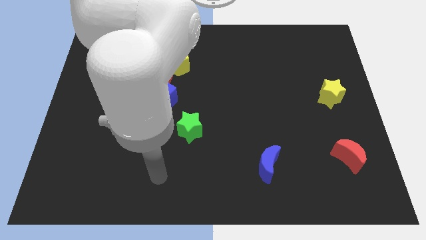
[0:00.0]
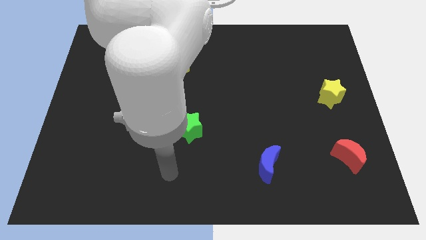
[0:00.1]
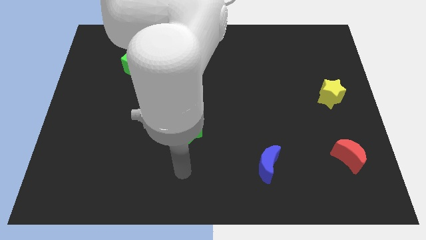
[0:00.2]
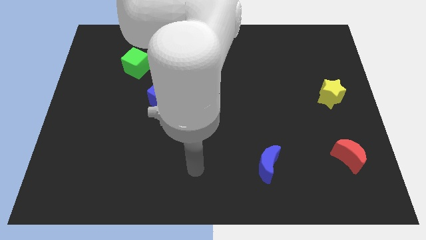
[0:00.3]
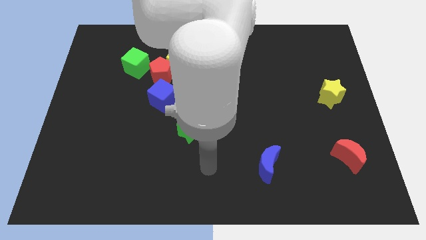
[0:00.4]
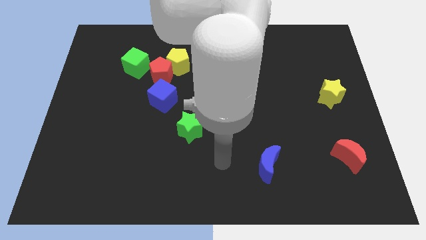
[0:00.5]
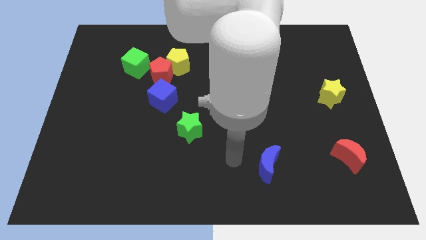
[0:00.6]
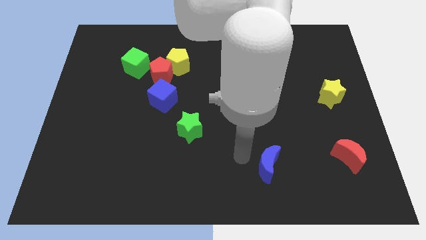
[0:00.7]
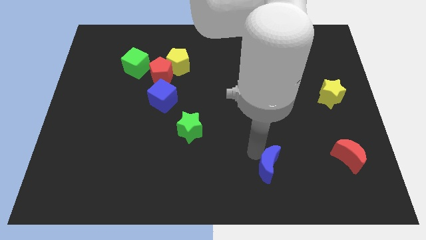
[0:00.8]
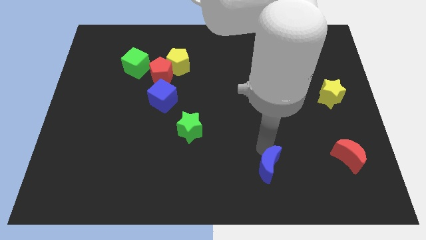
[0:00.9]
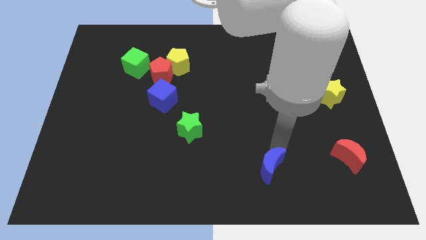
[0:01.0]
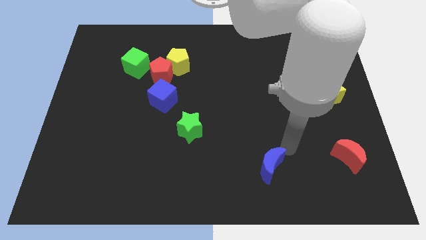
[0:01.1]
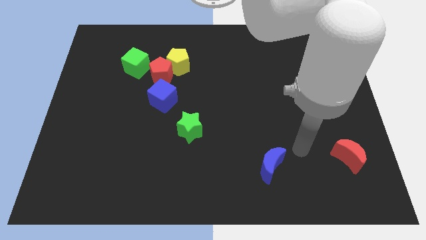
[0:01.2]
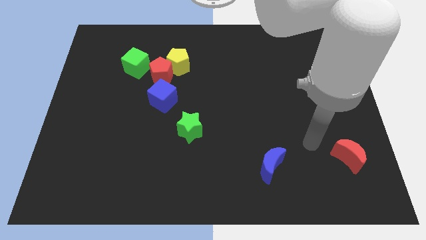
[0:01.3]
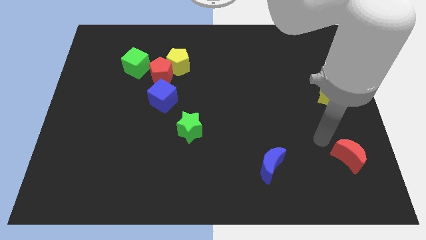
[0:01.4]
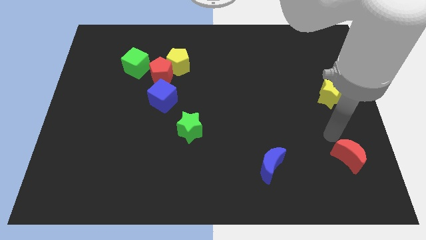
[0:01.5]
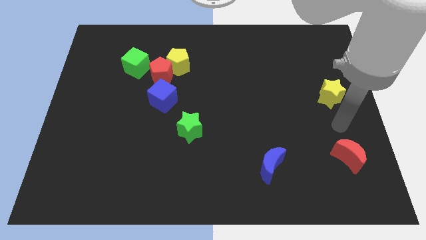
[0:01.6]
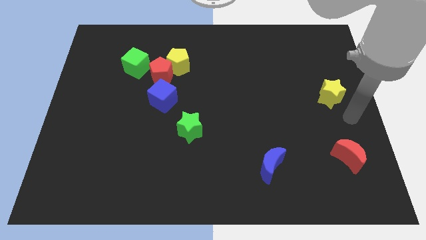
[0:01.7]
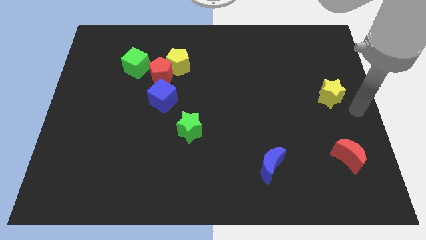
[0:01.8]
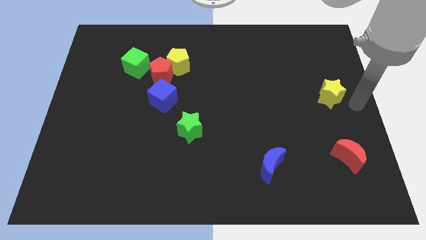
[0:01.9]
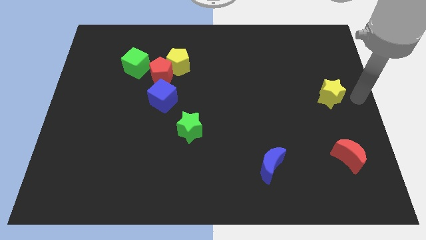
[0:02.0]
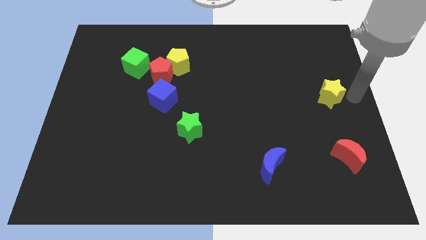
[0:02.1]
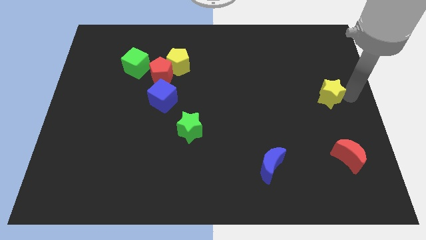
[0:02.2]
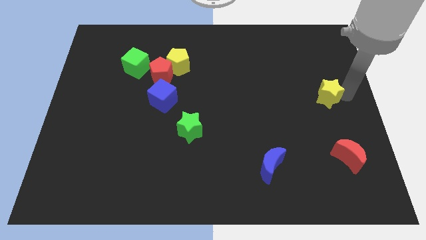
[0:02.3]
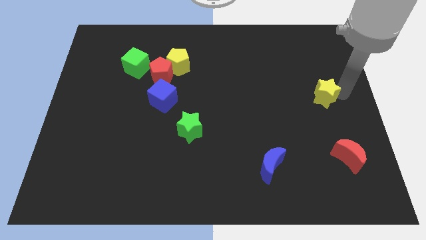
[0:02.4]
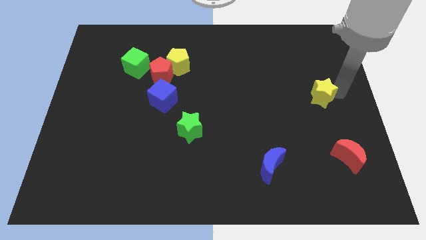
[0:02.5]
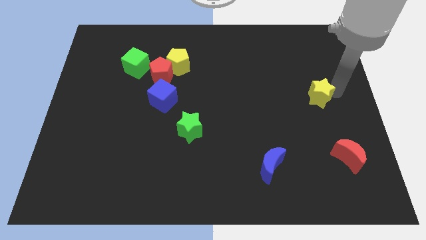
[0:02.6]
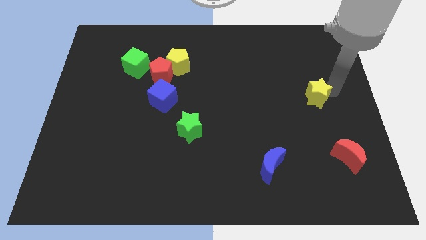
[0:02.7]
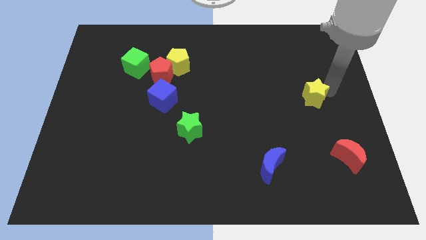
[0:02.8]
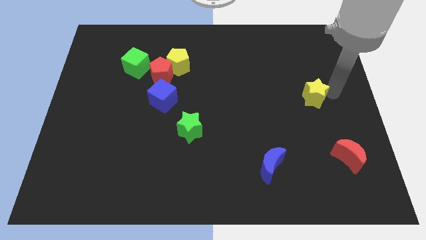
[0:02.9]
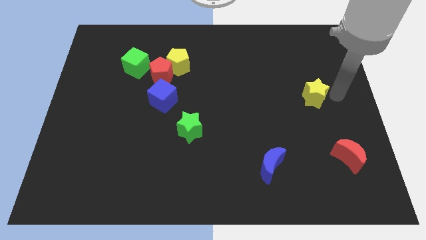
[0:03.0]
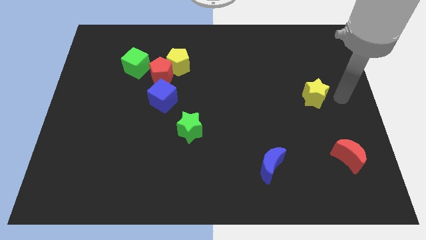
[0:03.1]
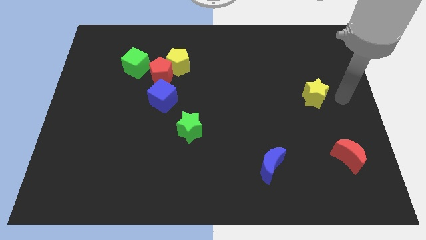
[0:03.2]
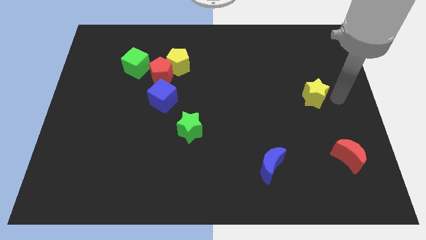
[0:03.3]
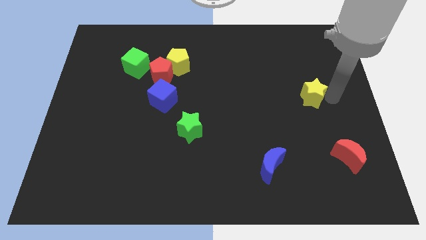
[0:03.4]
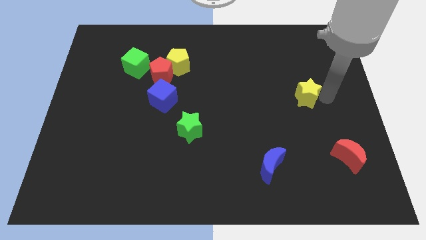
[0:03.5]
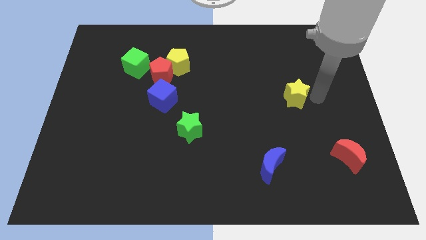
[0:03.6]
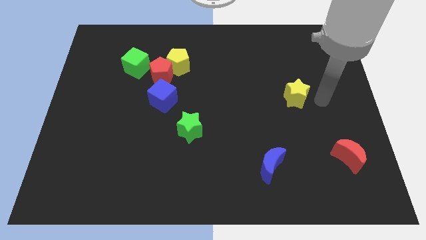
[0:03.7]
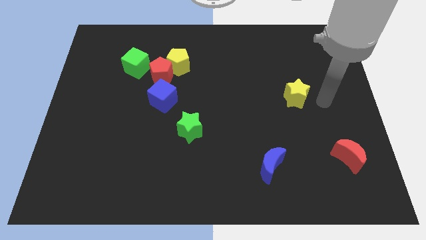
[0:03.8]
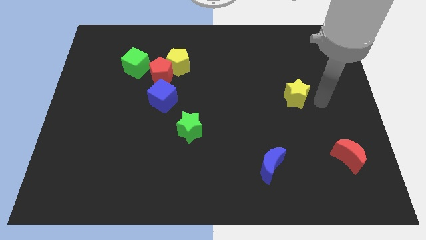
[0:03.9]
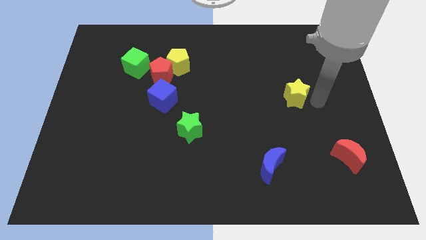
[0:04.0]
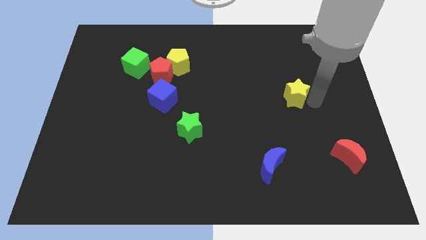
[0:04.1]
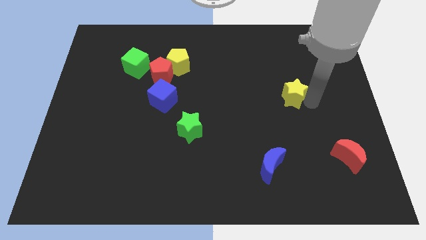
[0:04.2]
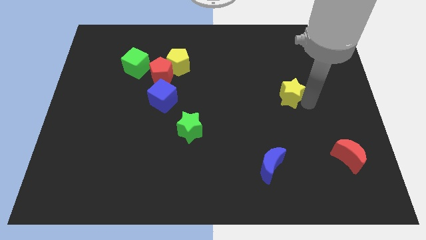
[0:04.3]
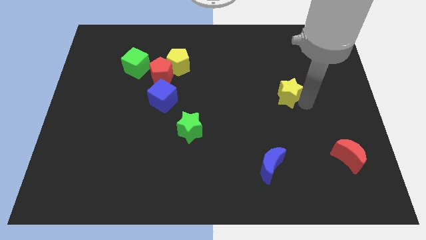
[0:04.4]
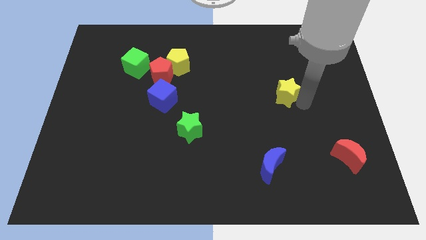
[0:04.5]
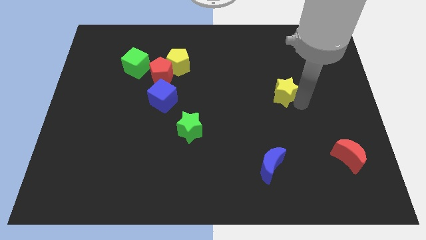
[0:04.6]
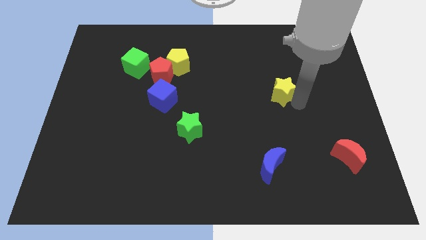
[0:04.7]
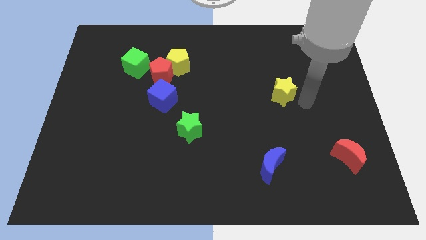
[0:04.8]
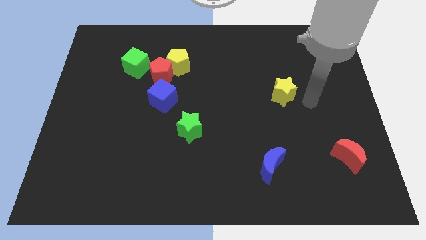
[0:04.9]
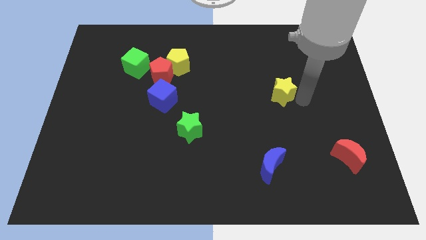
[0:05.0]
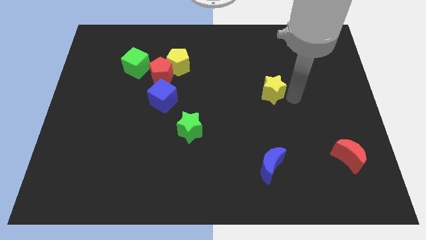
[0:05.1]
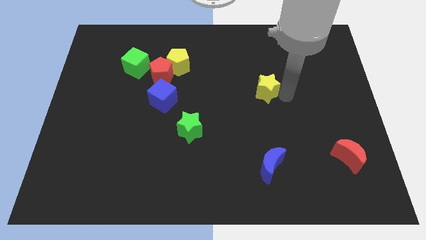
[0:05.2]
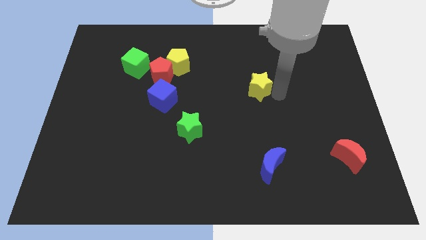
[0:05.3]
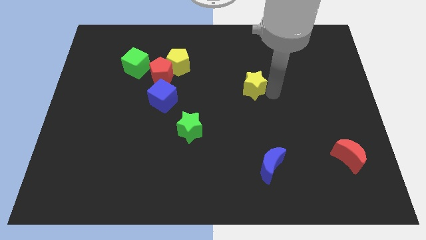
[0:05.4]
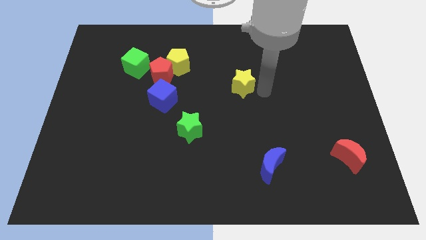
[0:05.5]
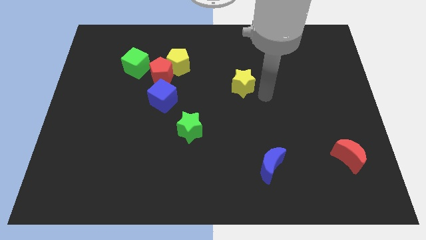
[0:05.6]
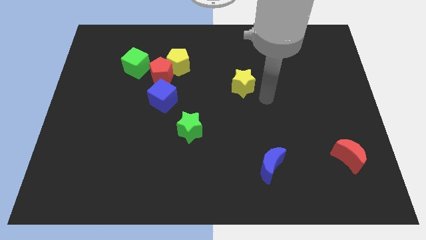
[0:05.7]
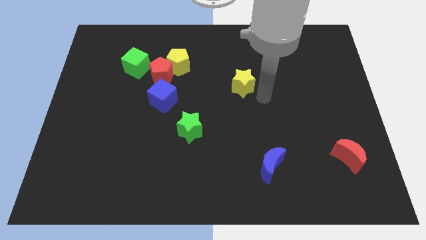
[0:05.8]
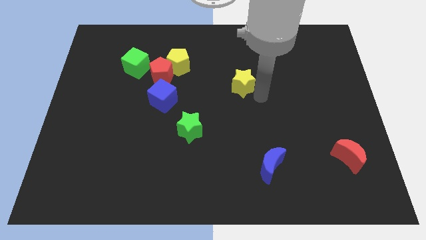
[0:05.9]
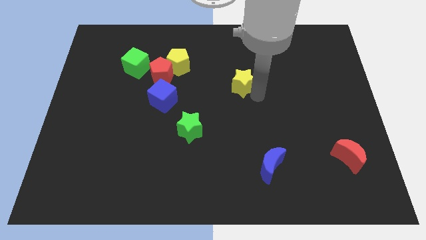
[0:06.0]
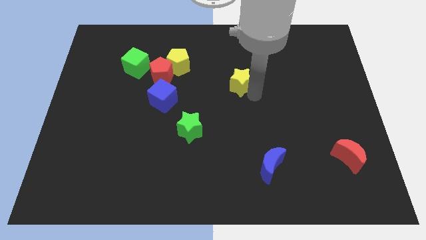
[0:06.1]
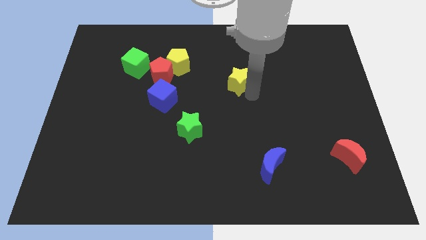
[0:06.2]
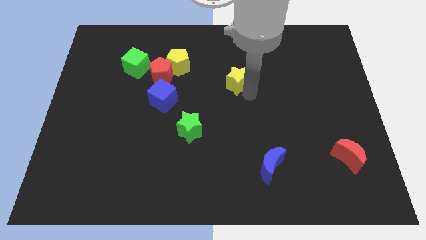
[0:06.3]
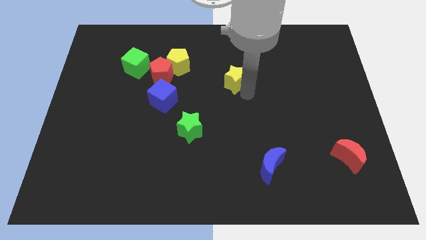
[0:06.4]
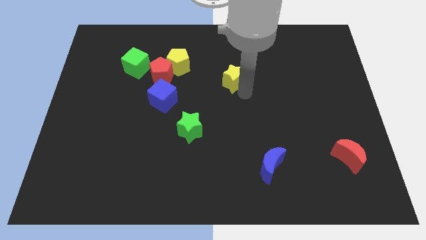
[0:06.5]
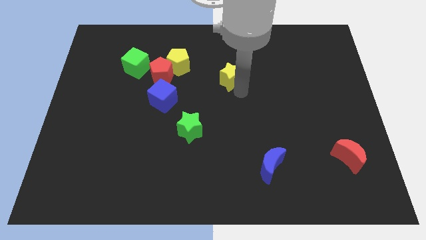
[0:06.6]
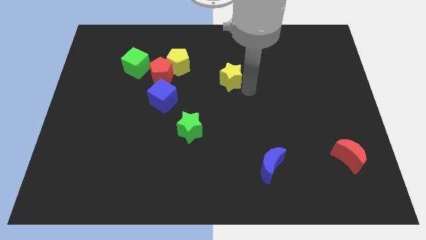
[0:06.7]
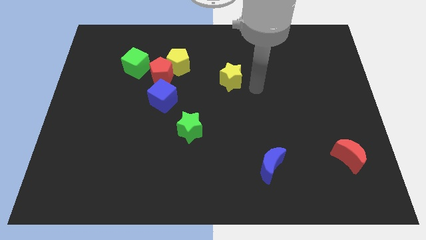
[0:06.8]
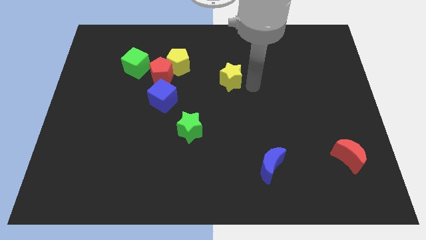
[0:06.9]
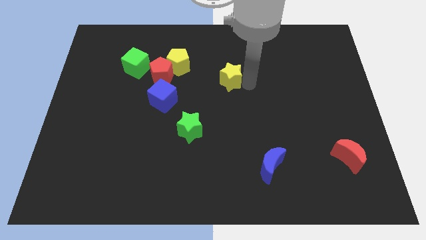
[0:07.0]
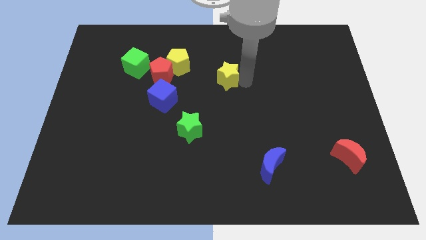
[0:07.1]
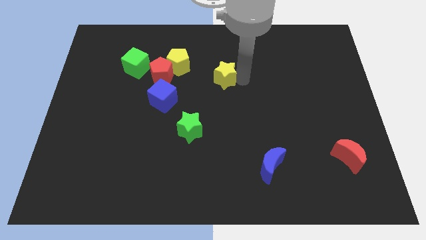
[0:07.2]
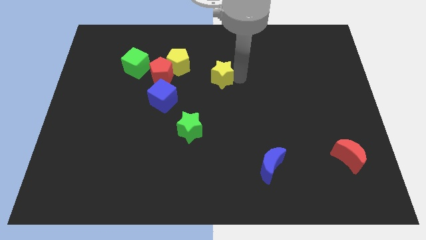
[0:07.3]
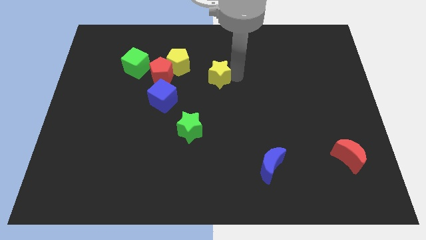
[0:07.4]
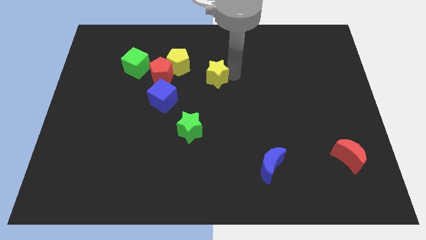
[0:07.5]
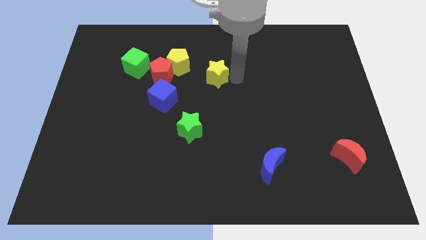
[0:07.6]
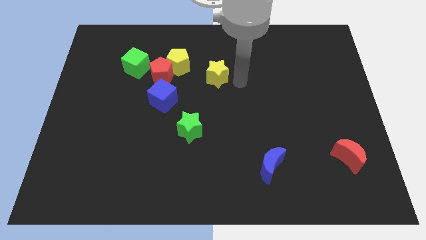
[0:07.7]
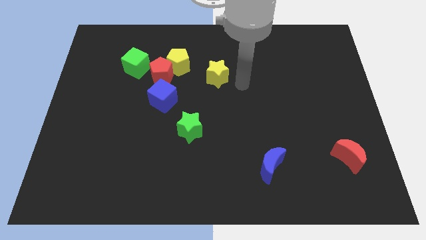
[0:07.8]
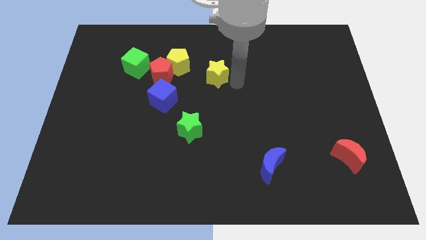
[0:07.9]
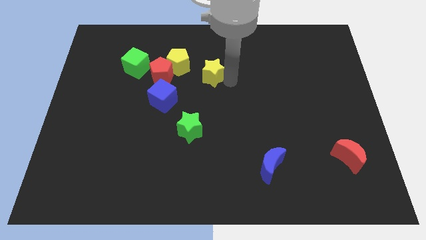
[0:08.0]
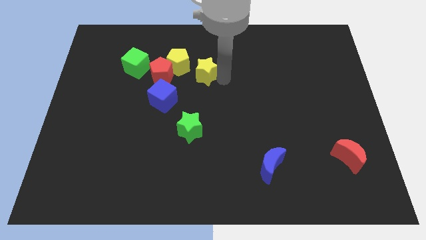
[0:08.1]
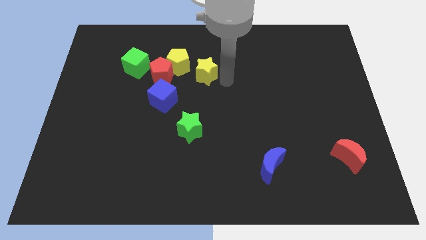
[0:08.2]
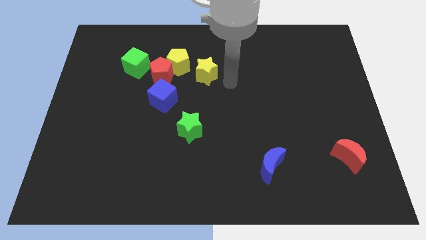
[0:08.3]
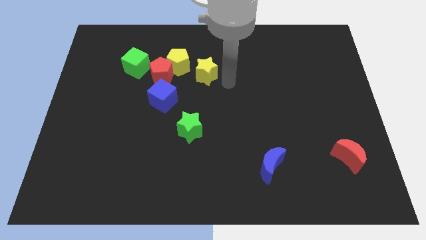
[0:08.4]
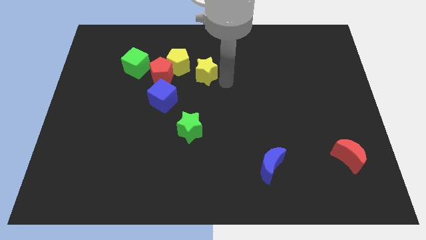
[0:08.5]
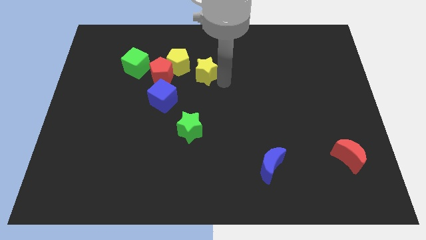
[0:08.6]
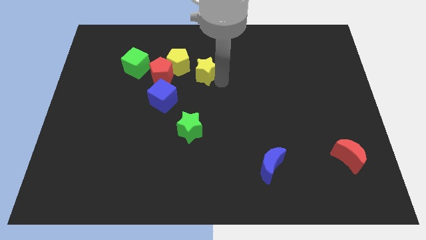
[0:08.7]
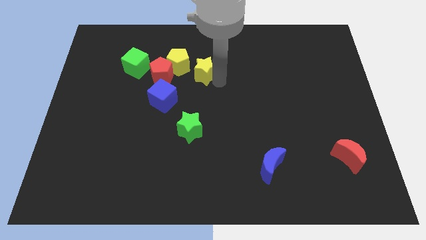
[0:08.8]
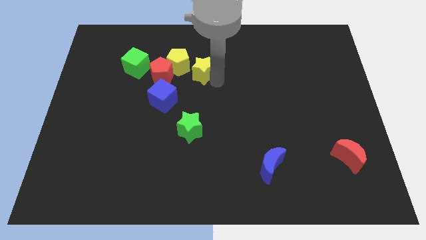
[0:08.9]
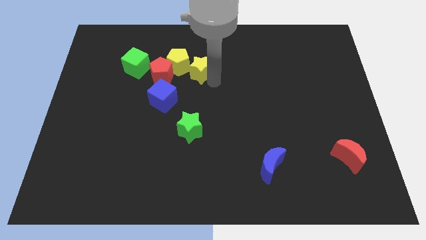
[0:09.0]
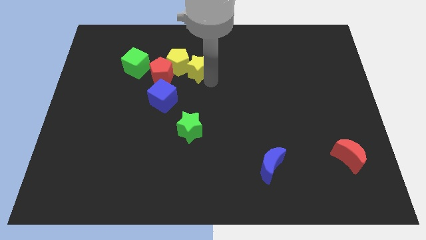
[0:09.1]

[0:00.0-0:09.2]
slide the yellow star towards the yellow pentagon
